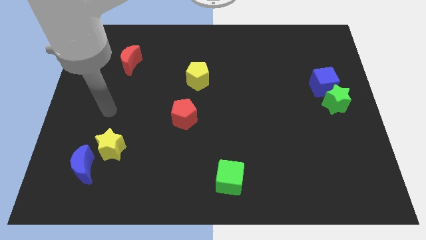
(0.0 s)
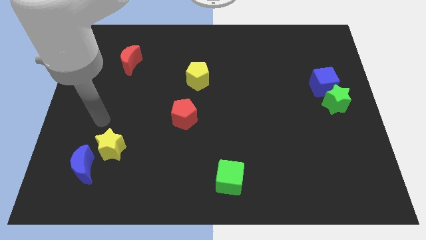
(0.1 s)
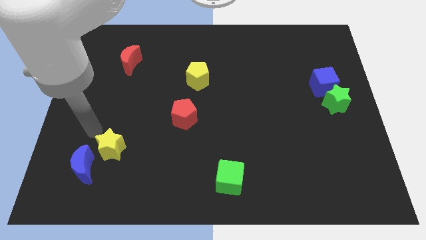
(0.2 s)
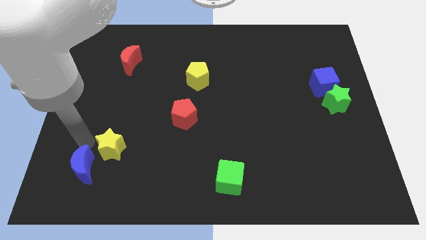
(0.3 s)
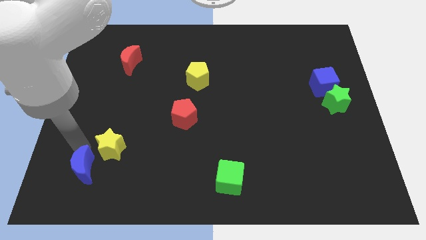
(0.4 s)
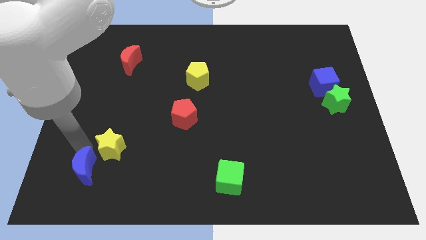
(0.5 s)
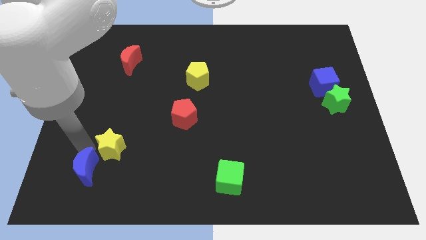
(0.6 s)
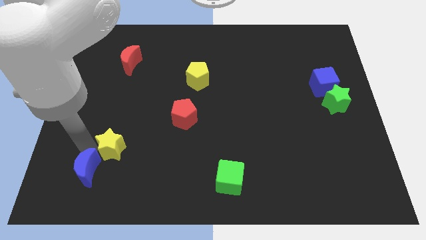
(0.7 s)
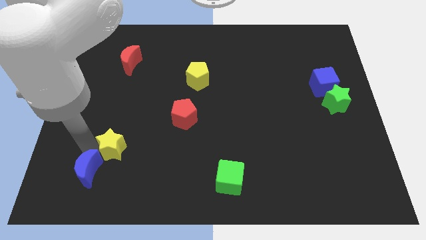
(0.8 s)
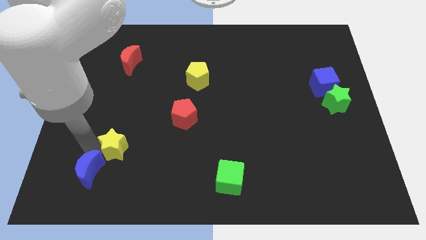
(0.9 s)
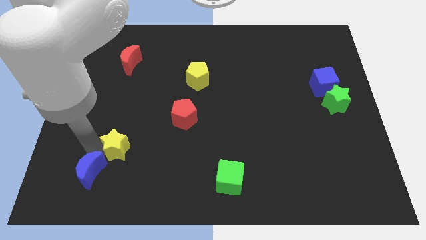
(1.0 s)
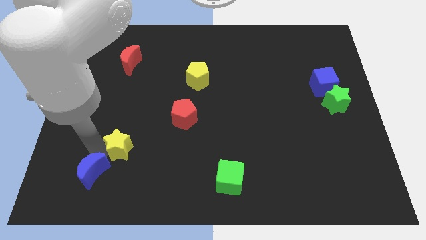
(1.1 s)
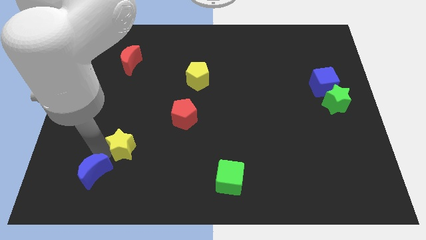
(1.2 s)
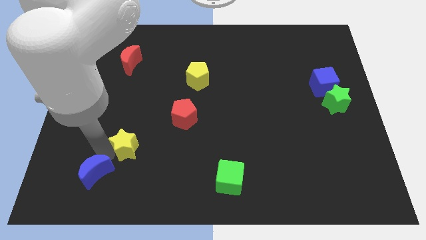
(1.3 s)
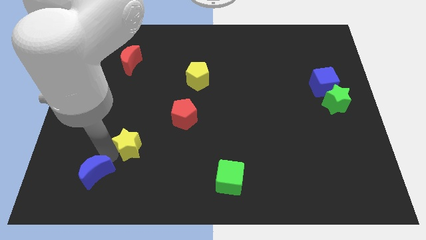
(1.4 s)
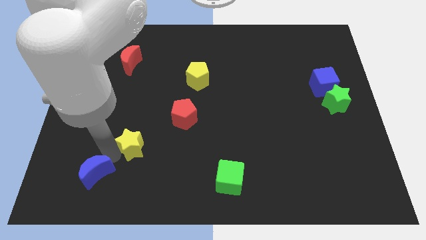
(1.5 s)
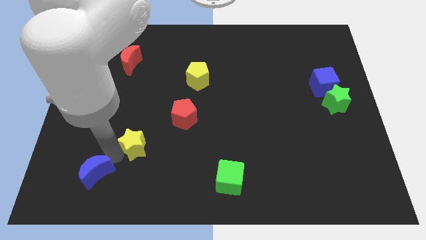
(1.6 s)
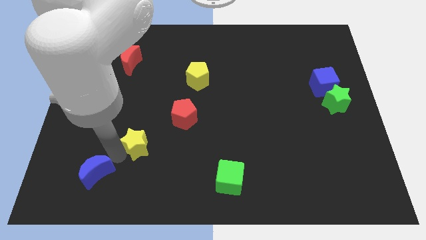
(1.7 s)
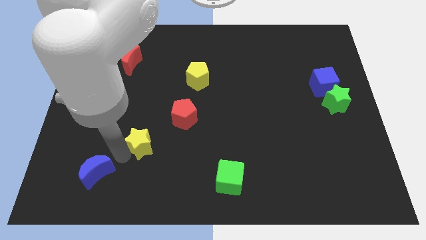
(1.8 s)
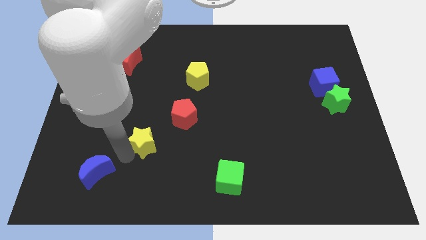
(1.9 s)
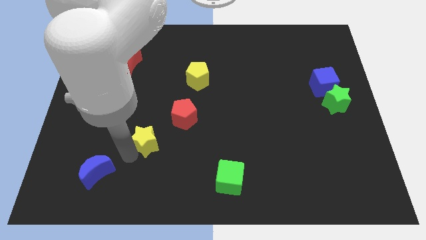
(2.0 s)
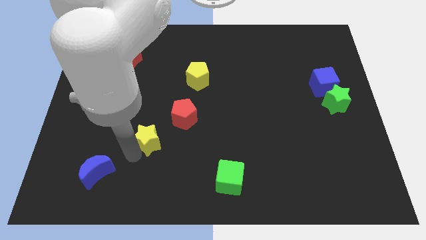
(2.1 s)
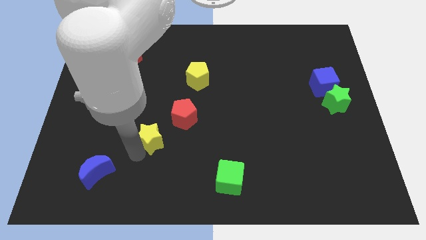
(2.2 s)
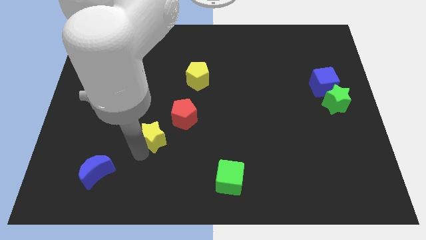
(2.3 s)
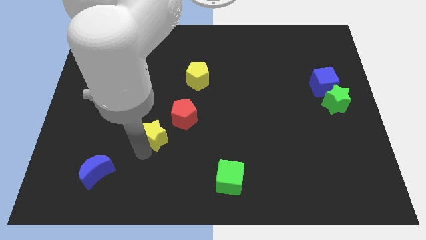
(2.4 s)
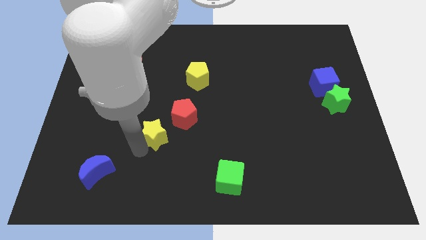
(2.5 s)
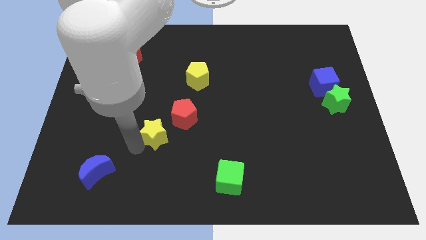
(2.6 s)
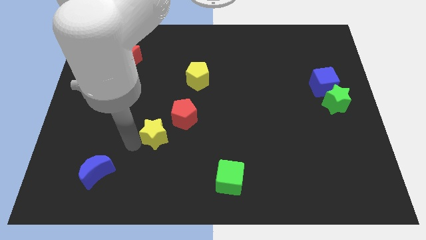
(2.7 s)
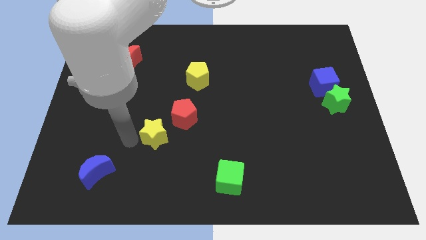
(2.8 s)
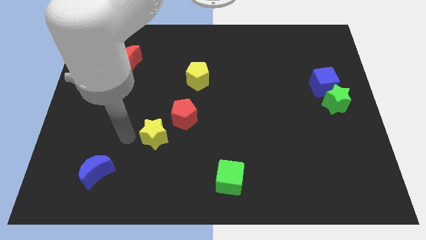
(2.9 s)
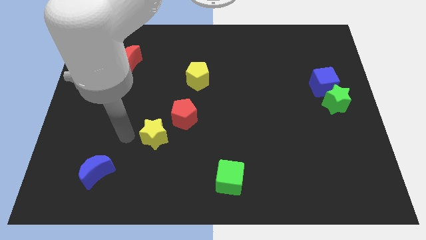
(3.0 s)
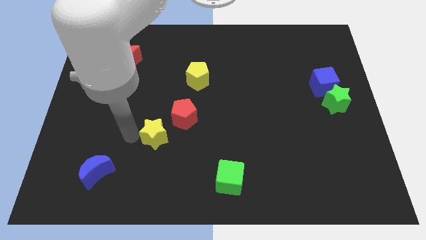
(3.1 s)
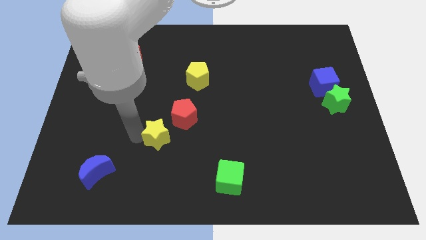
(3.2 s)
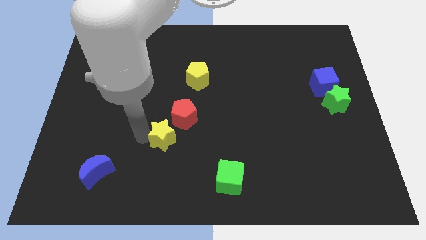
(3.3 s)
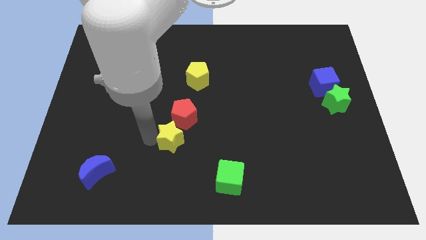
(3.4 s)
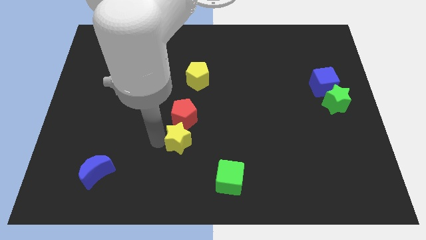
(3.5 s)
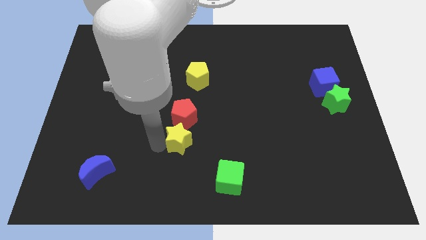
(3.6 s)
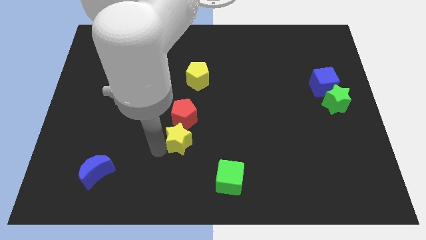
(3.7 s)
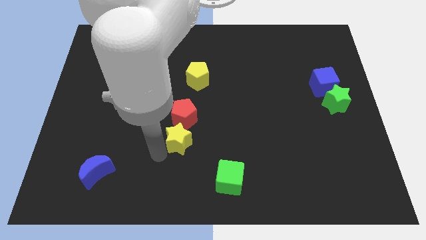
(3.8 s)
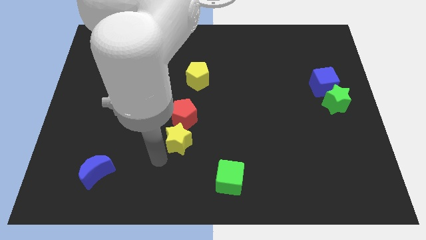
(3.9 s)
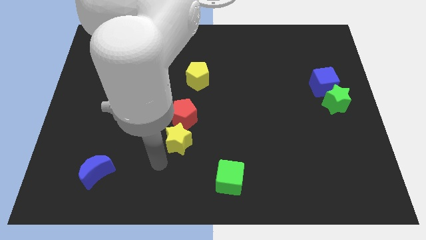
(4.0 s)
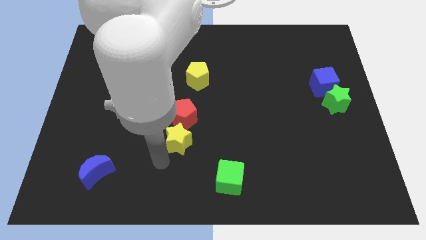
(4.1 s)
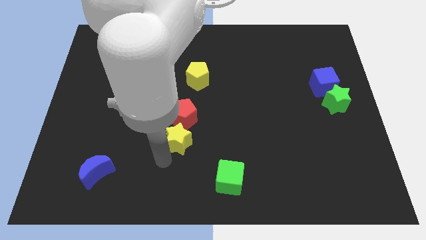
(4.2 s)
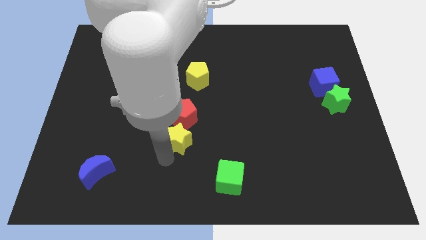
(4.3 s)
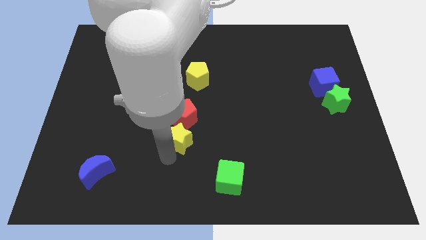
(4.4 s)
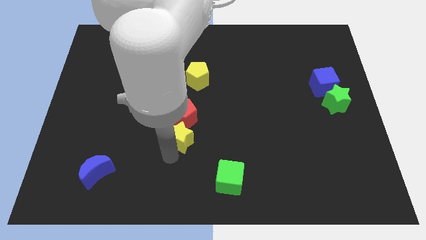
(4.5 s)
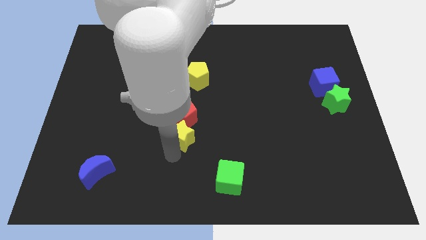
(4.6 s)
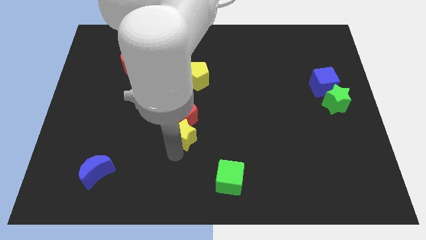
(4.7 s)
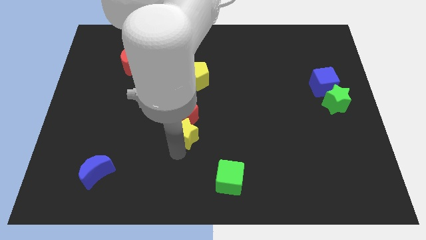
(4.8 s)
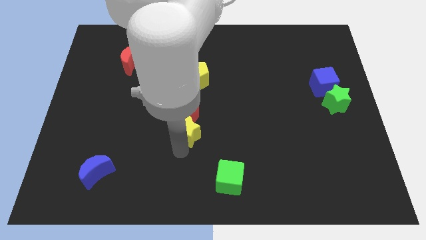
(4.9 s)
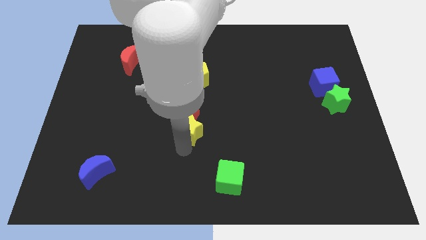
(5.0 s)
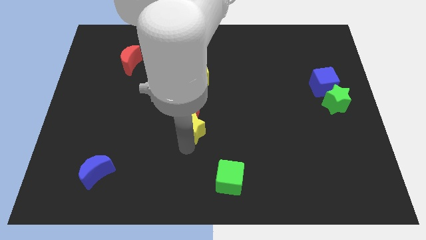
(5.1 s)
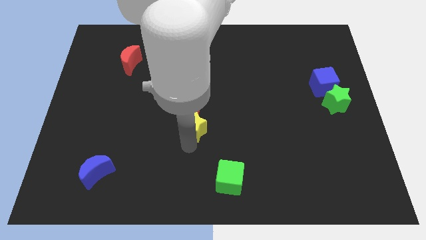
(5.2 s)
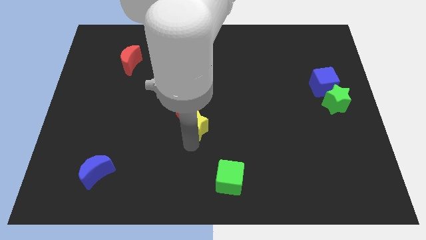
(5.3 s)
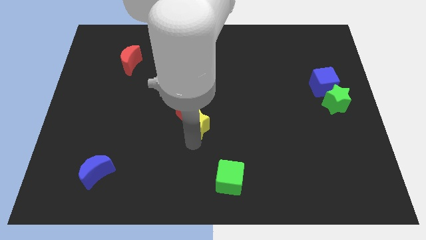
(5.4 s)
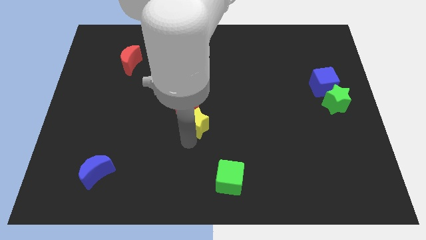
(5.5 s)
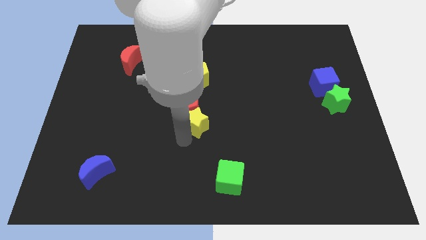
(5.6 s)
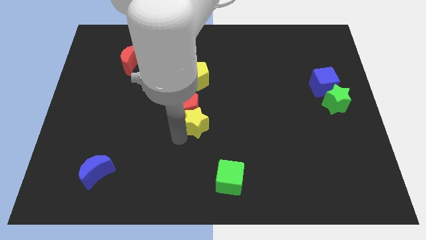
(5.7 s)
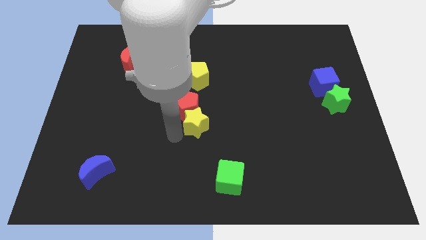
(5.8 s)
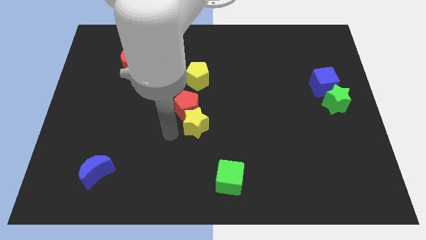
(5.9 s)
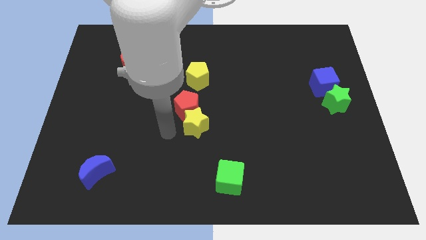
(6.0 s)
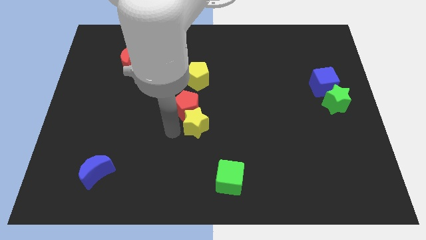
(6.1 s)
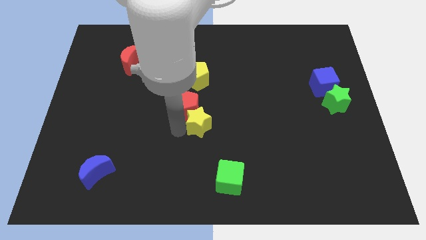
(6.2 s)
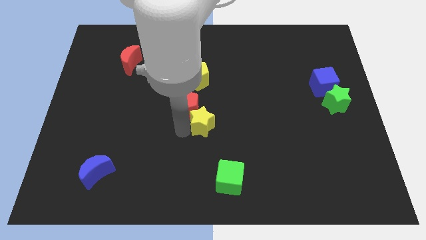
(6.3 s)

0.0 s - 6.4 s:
slide the yellow star just right of the red pentagon

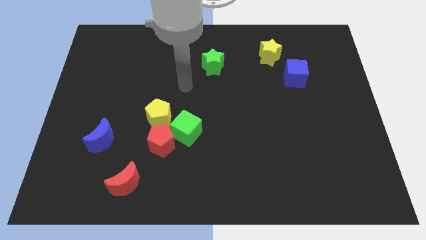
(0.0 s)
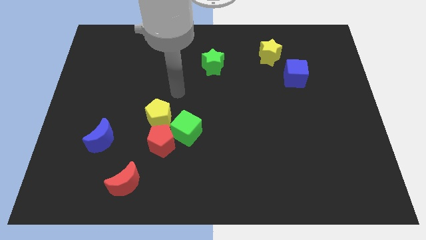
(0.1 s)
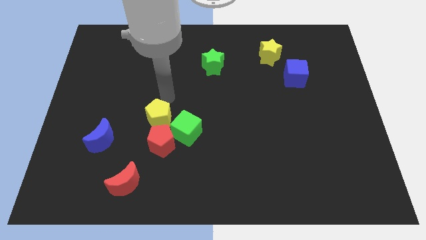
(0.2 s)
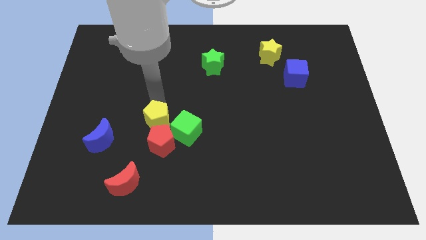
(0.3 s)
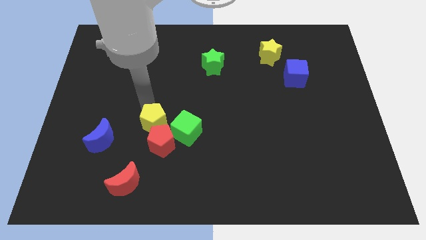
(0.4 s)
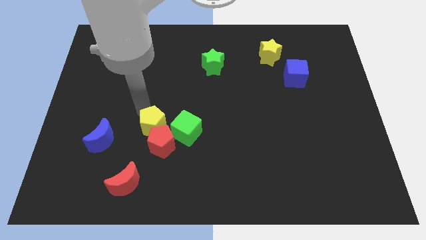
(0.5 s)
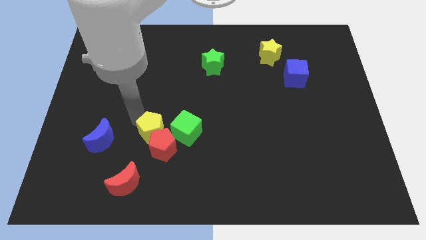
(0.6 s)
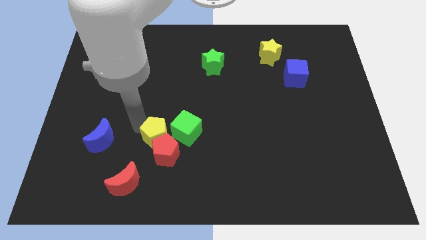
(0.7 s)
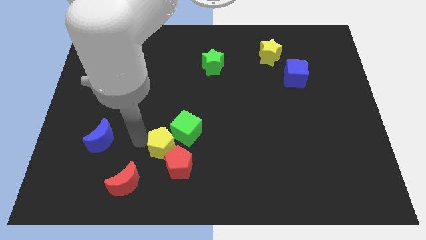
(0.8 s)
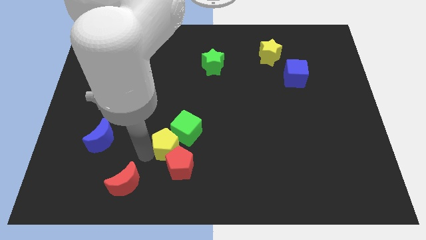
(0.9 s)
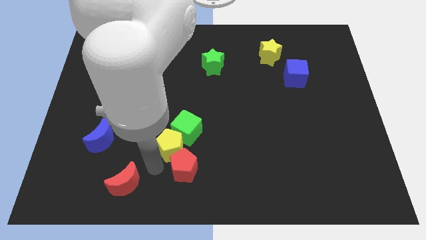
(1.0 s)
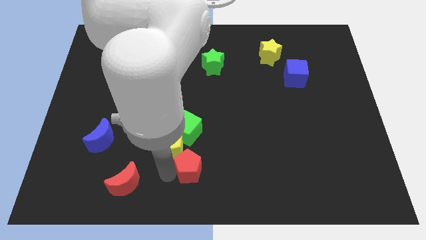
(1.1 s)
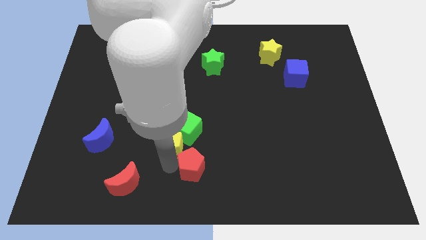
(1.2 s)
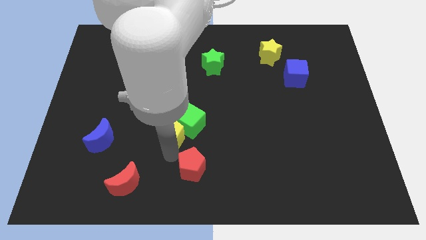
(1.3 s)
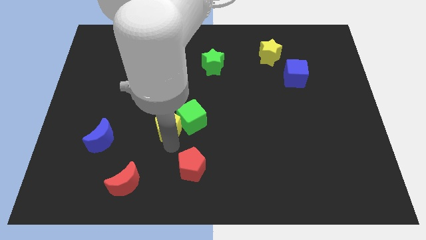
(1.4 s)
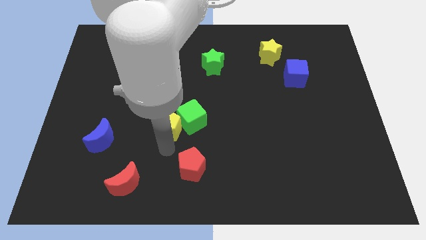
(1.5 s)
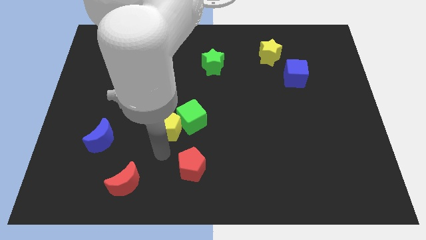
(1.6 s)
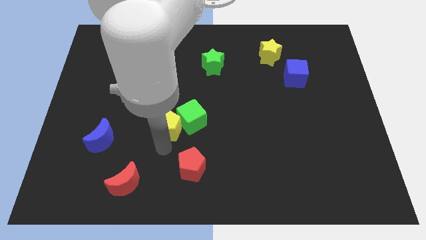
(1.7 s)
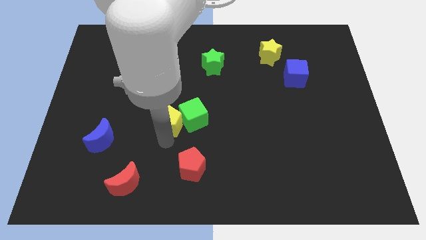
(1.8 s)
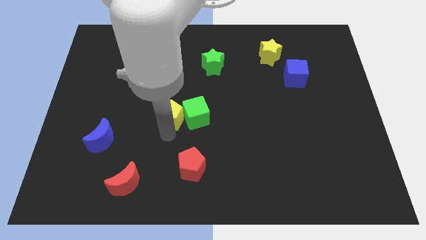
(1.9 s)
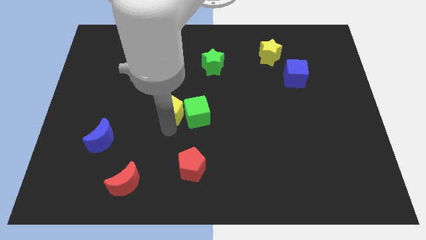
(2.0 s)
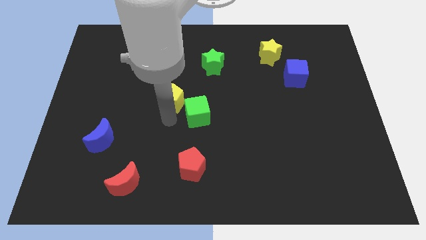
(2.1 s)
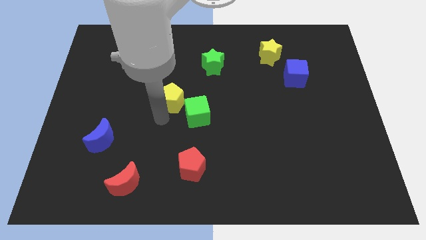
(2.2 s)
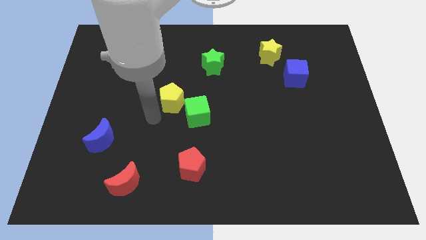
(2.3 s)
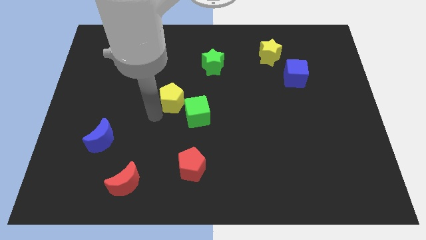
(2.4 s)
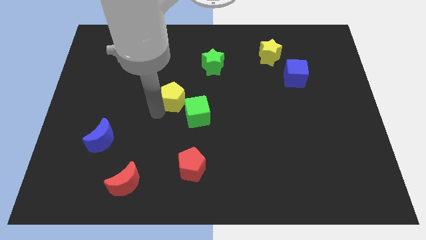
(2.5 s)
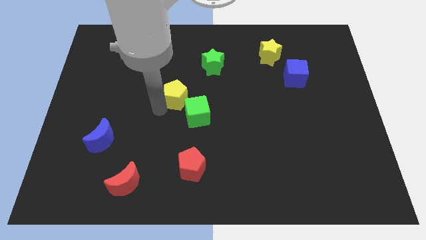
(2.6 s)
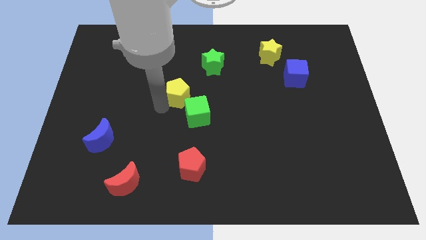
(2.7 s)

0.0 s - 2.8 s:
put the yellow pentagon above the green cube
